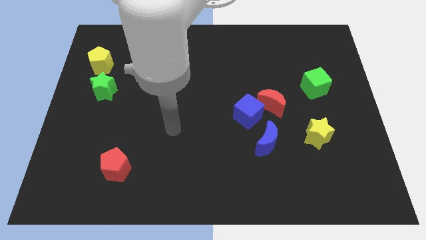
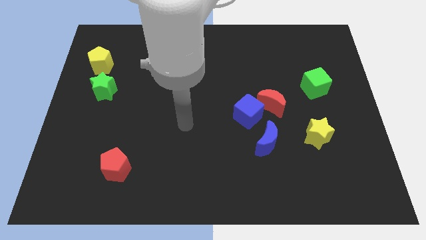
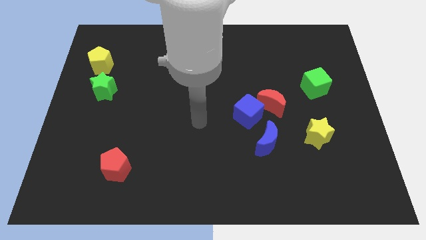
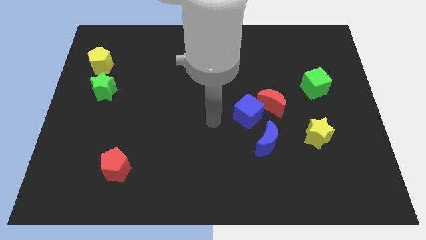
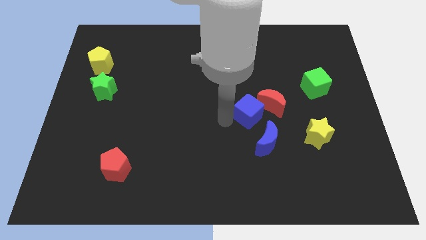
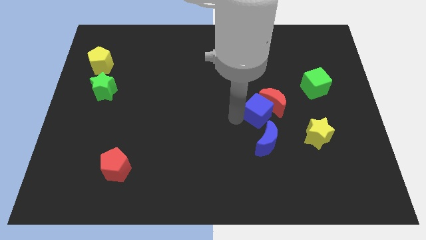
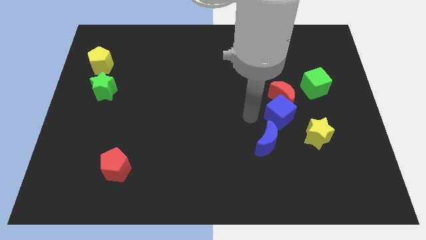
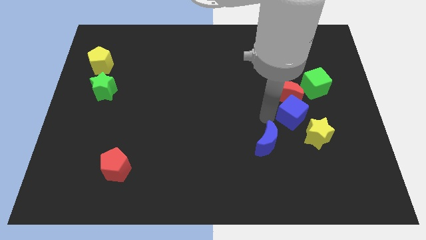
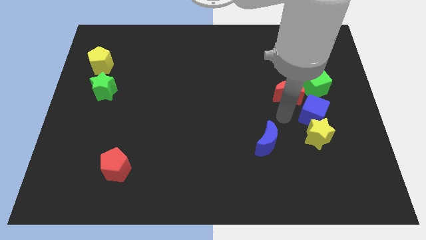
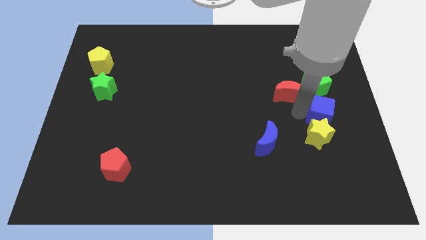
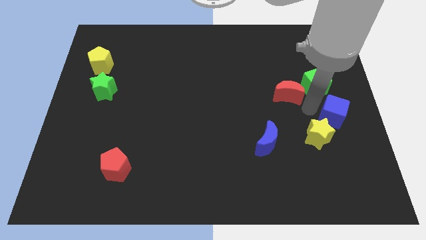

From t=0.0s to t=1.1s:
move the red moon away from the blue cube

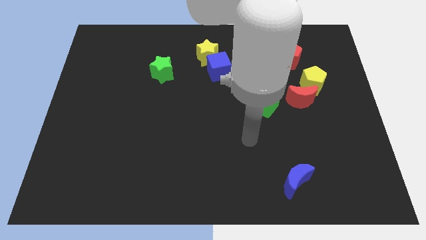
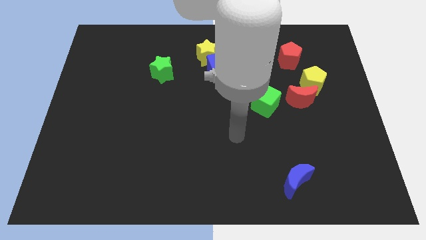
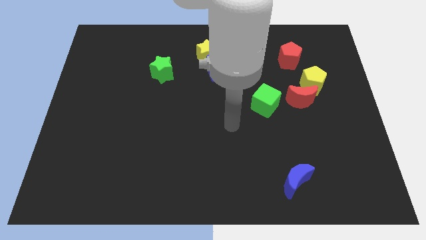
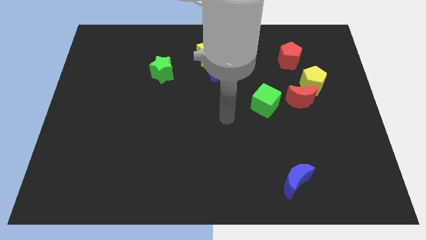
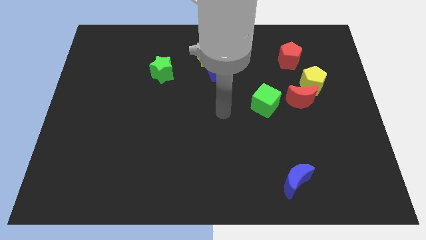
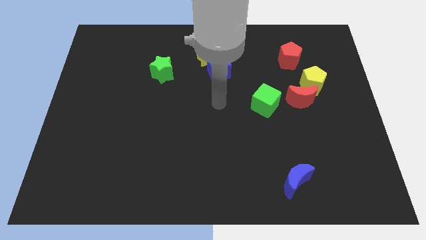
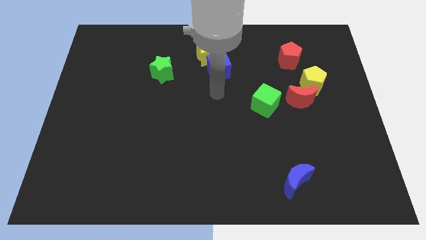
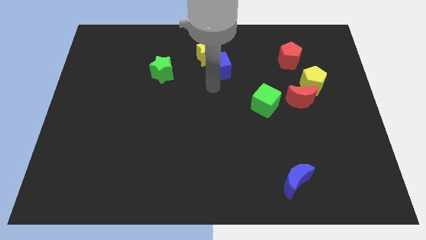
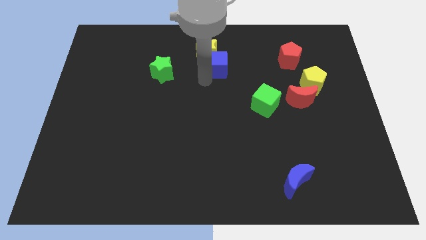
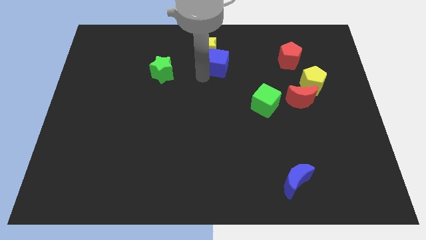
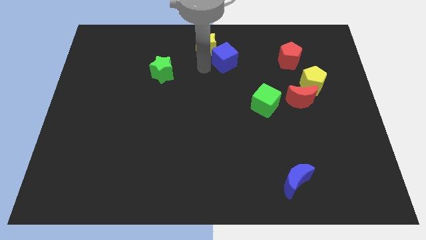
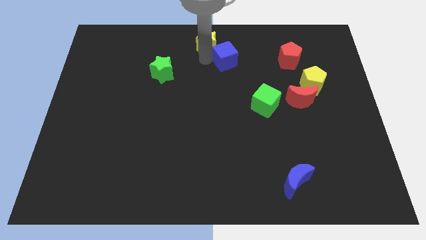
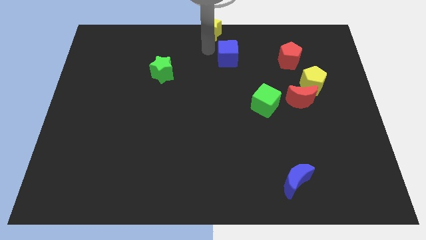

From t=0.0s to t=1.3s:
pull the blue cube apart from the yellow star

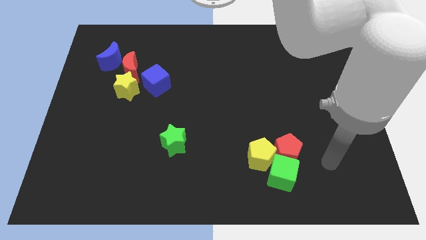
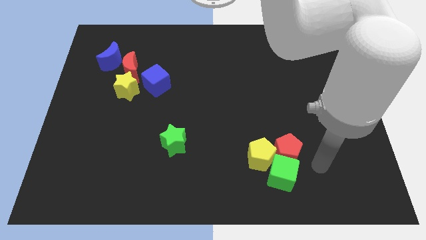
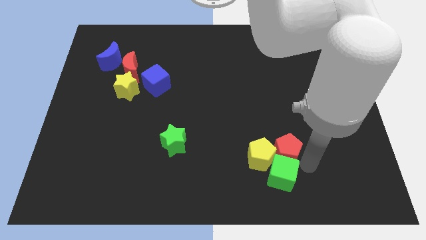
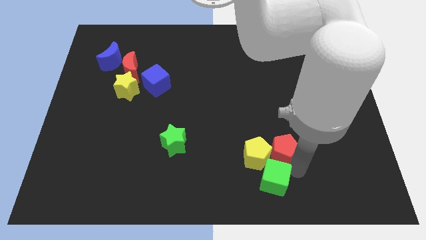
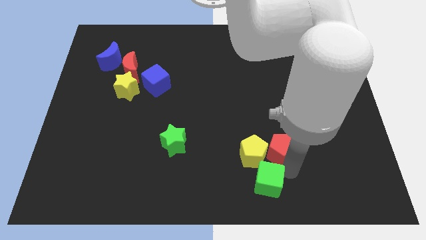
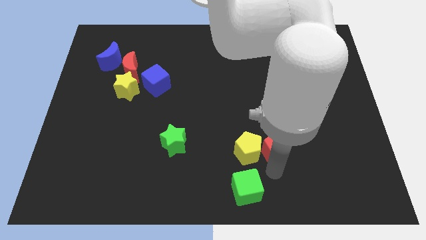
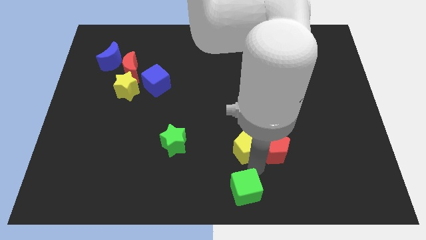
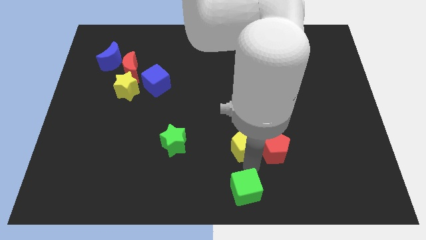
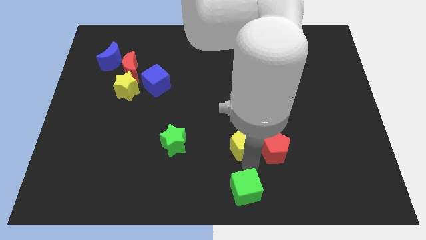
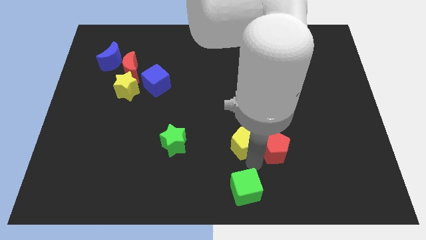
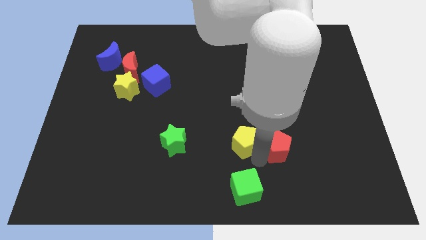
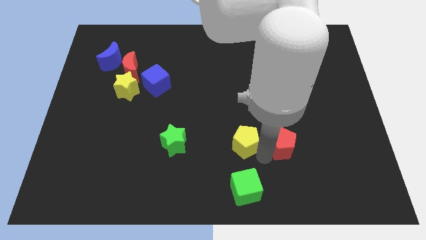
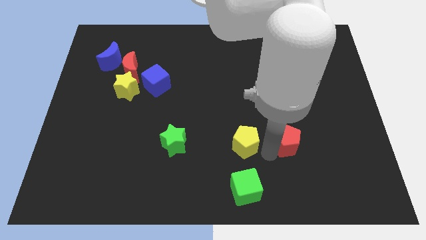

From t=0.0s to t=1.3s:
move the red pentagon away from the green cube and yellow pentagon

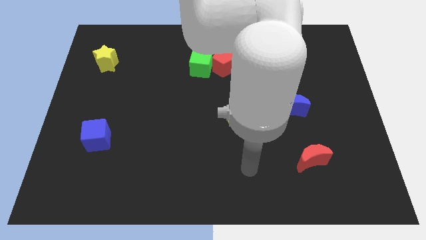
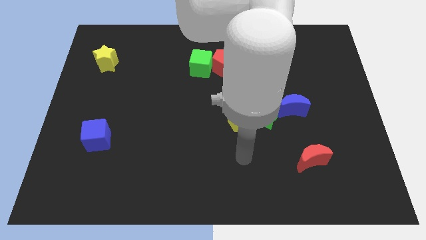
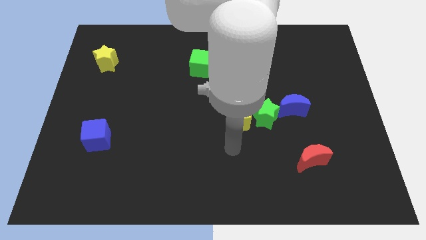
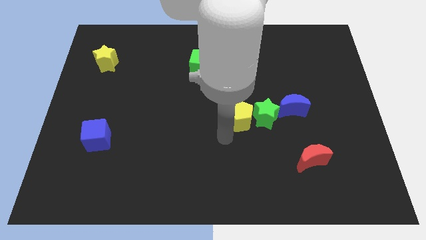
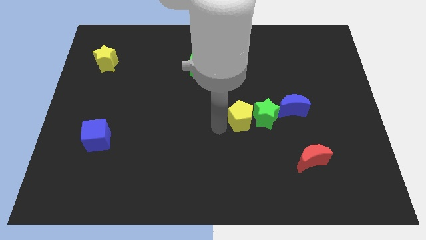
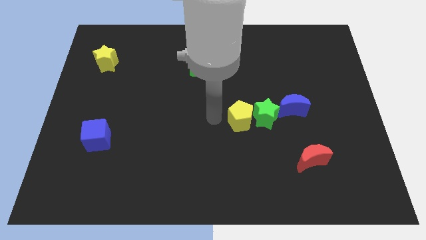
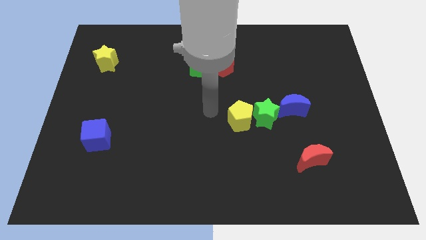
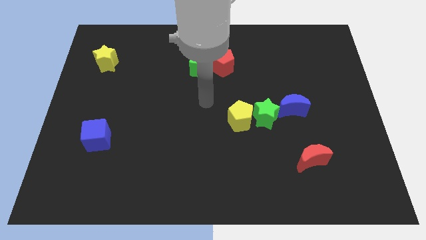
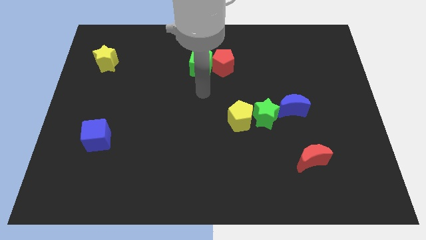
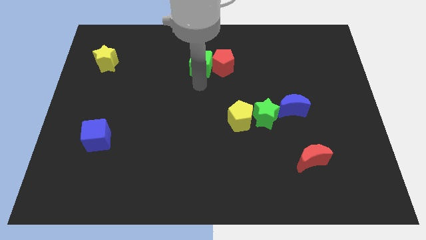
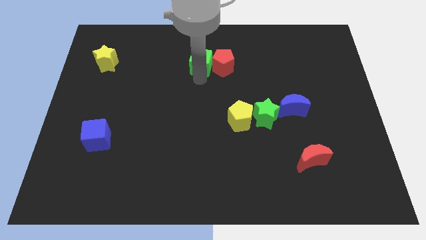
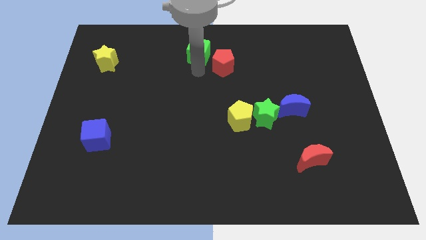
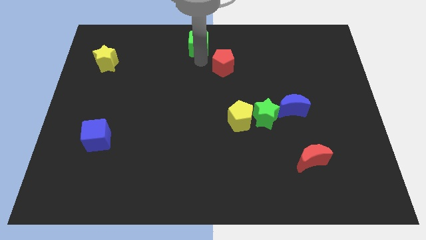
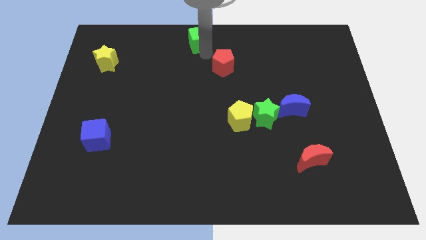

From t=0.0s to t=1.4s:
separate the red pentagon from the green cube

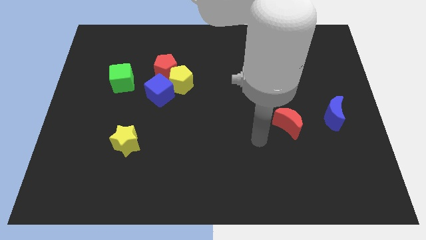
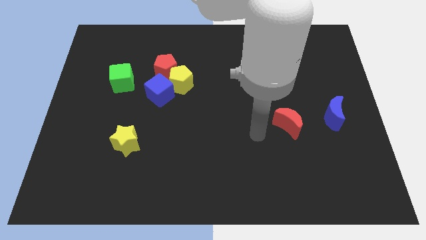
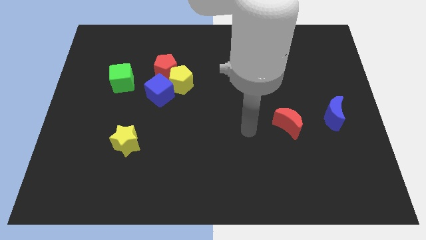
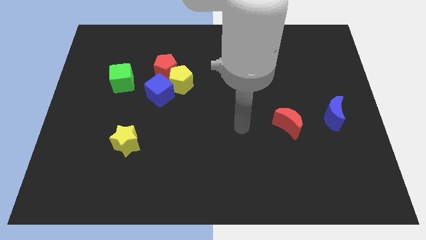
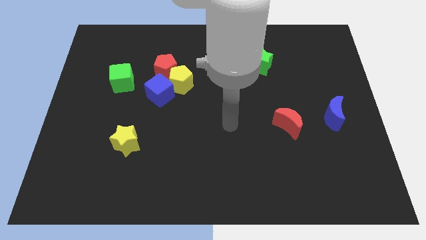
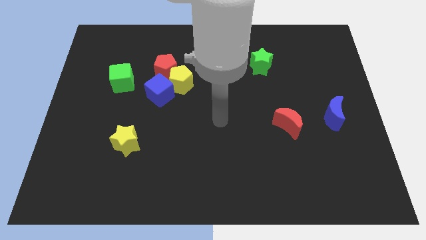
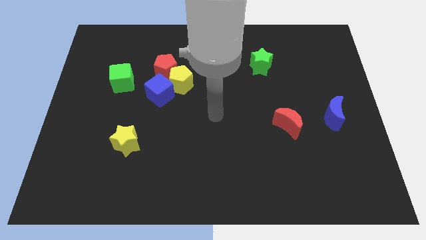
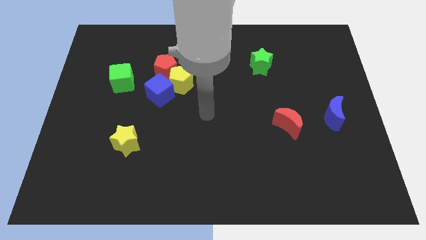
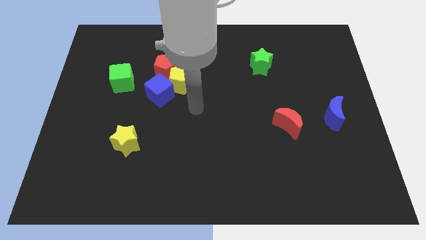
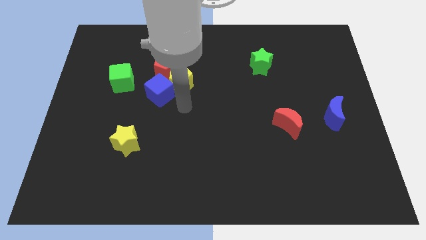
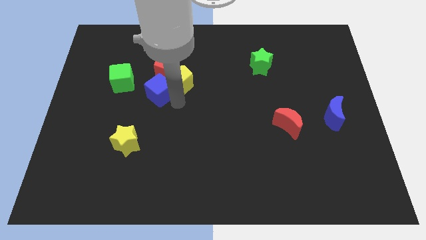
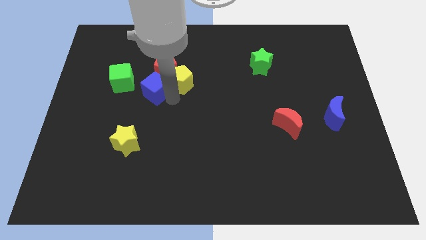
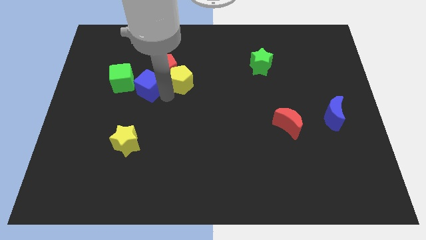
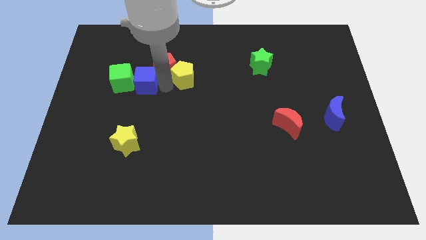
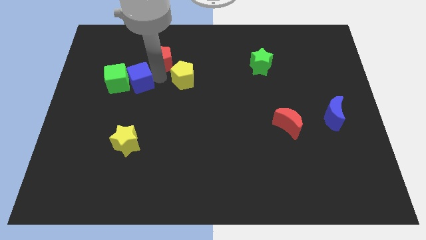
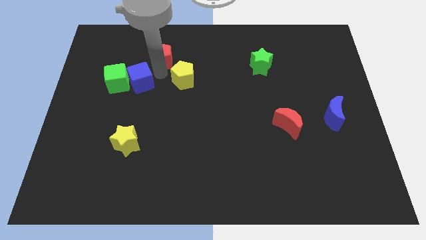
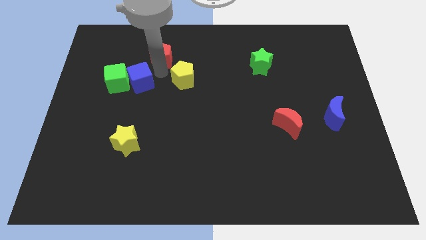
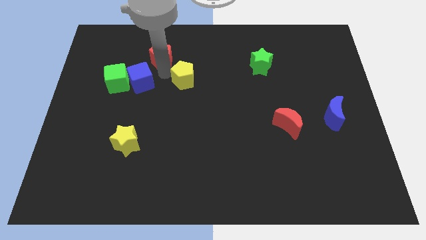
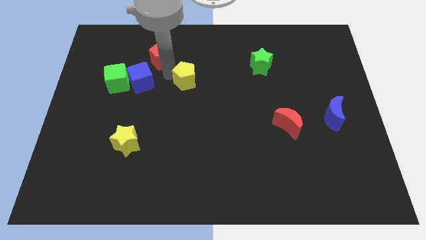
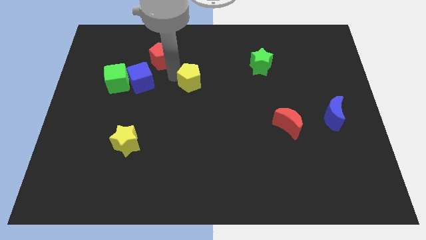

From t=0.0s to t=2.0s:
pull the yellow pentagon apart from the red pentagon and blue cube

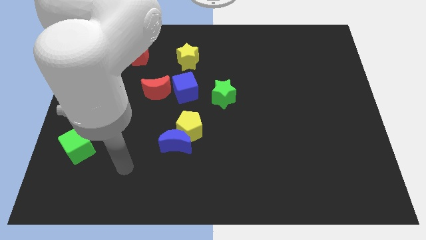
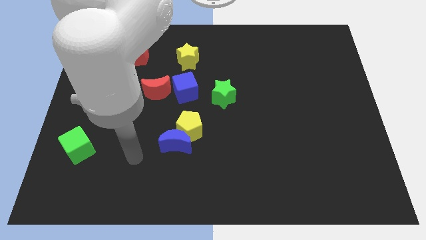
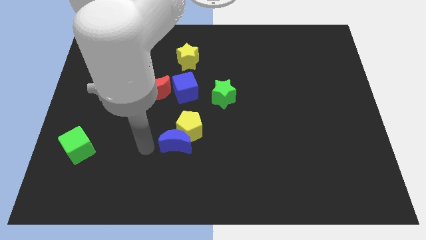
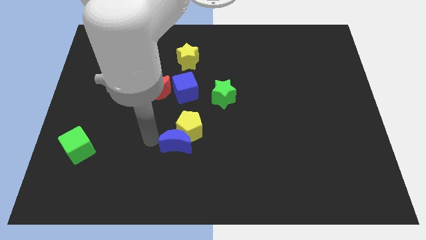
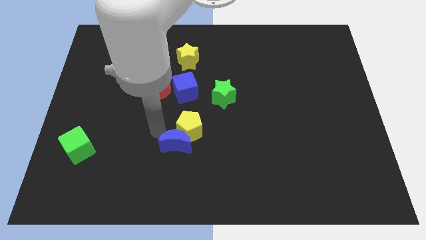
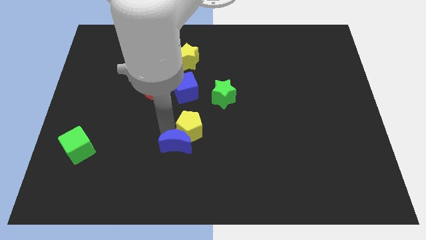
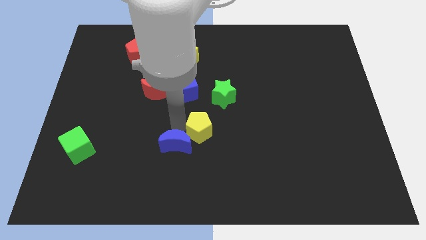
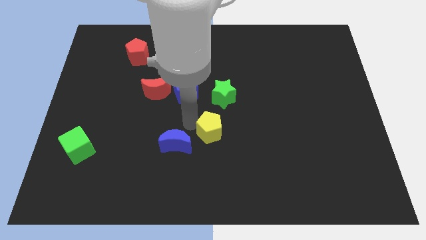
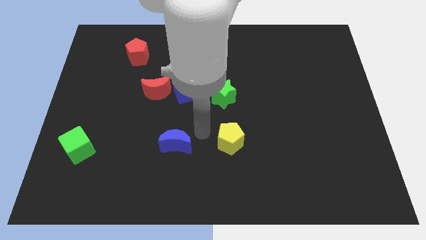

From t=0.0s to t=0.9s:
pull the blue moon apart from the yellow pentagon

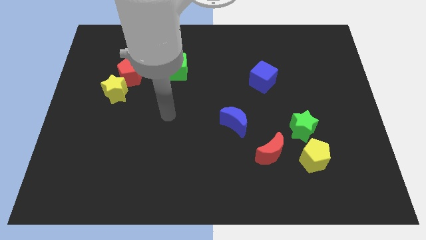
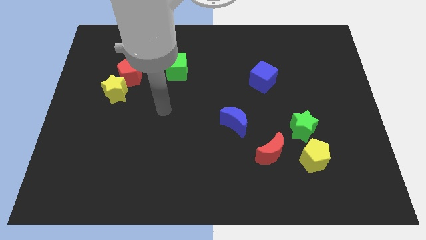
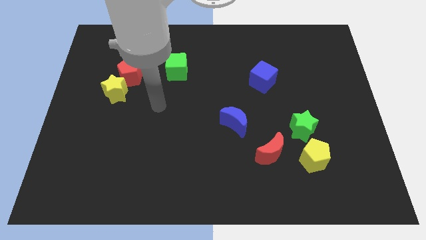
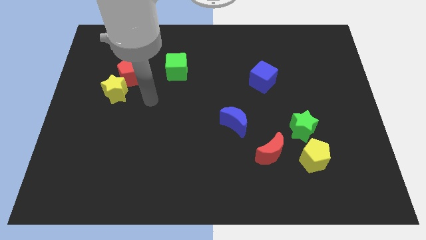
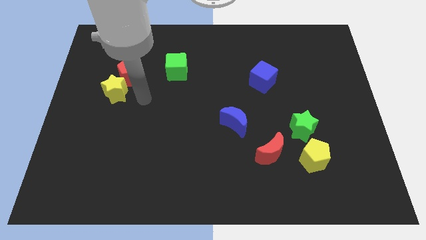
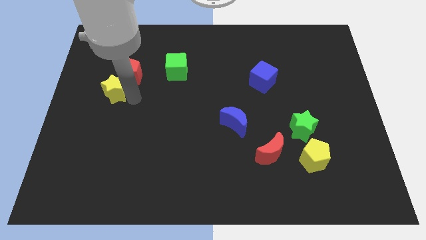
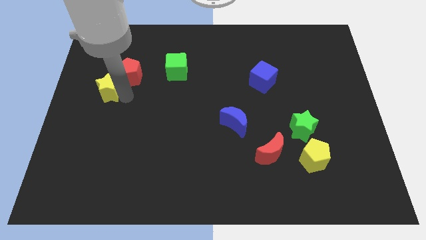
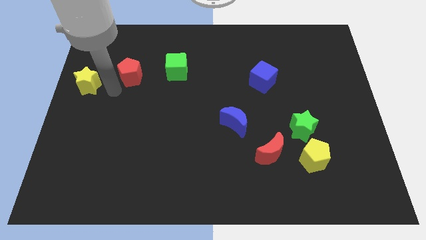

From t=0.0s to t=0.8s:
separate the red pentagon from the yellow star

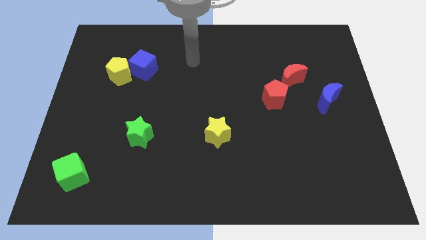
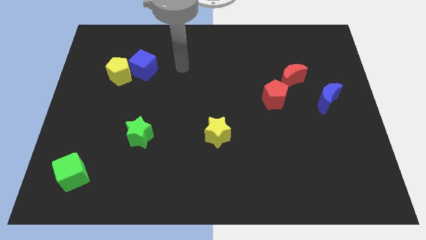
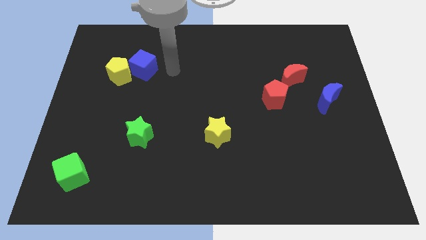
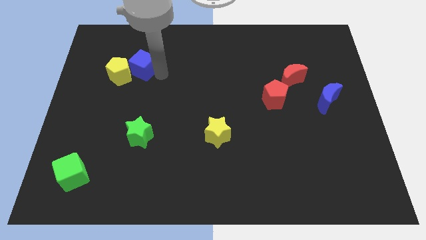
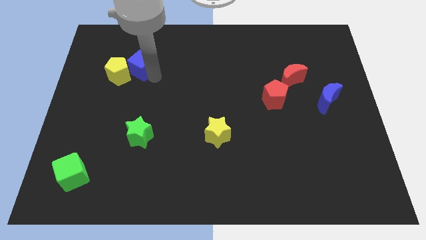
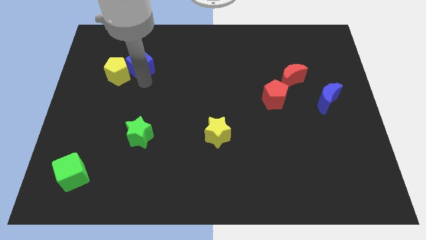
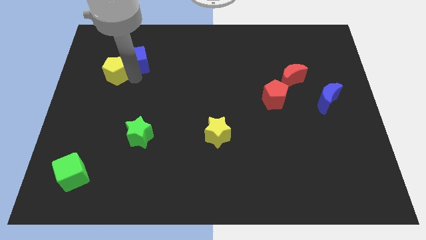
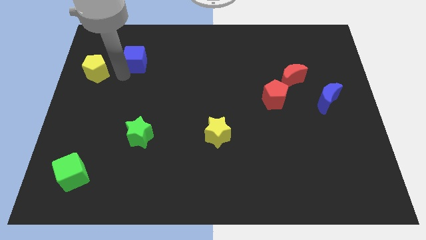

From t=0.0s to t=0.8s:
pull the blue cube apart from the yellow pentagon
